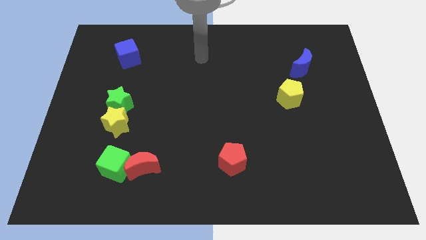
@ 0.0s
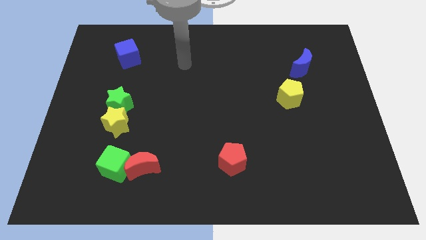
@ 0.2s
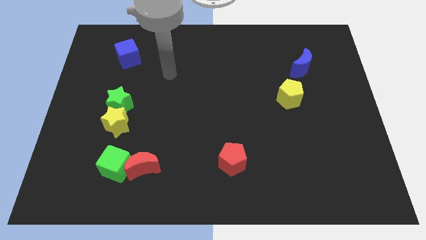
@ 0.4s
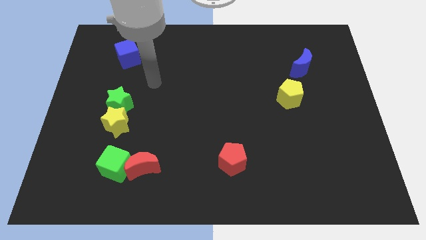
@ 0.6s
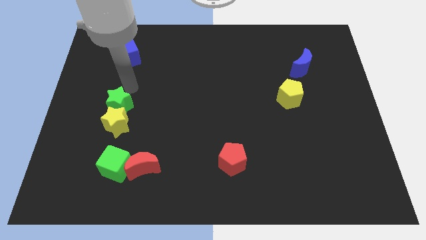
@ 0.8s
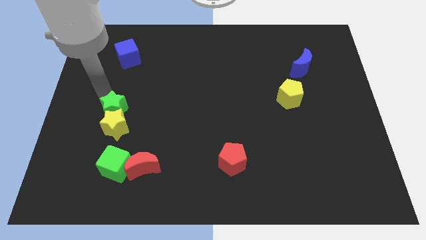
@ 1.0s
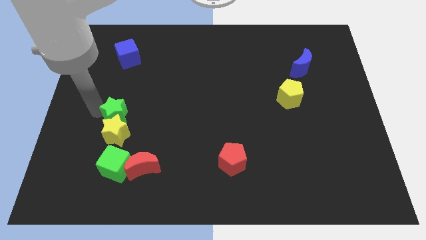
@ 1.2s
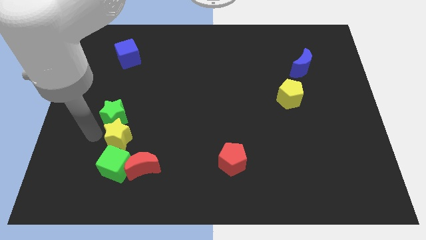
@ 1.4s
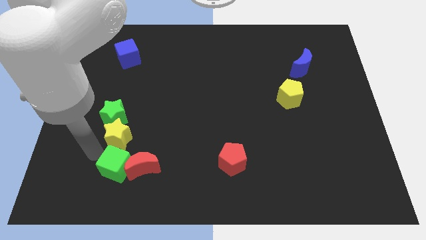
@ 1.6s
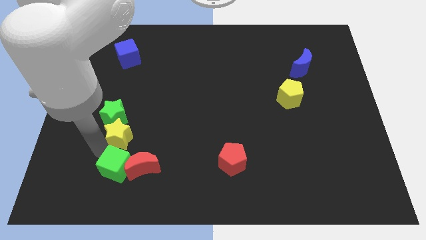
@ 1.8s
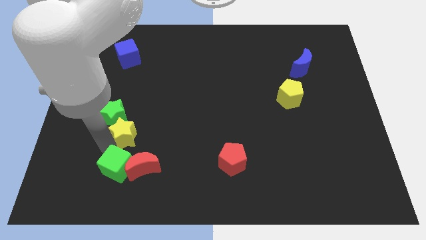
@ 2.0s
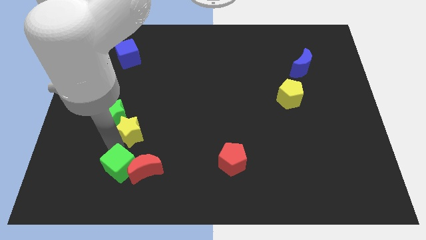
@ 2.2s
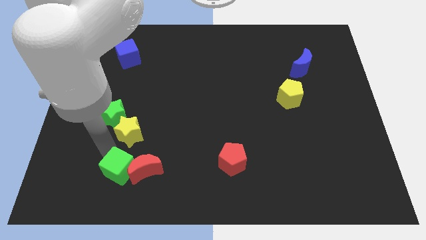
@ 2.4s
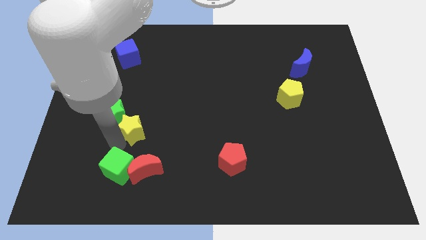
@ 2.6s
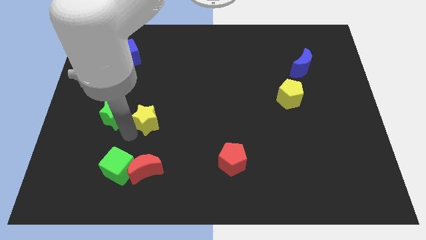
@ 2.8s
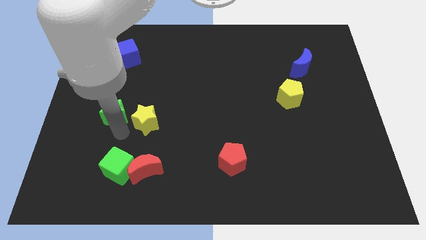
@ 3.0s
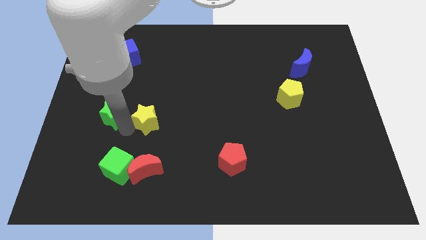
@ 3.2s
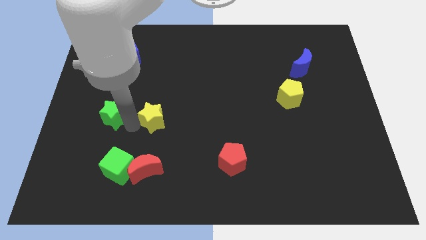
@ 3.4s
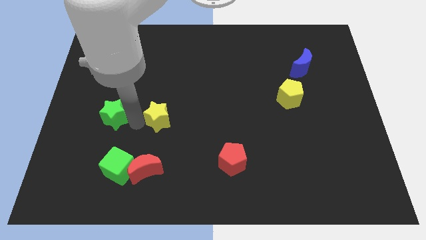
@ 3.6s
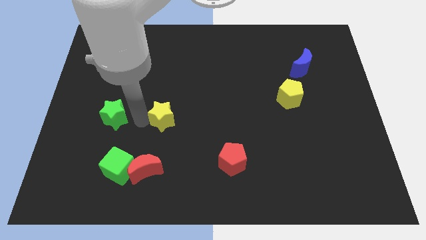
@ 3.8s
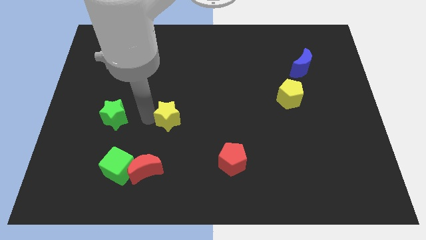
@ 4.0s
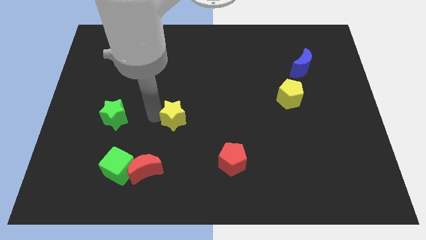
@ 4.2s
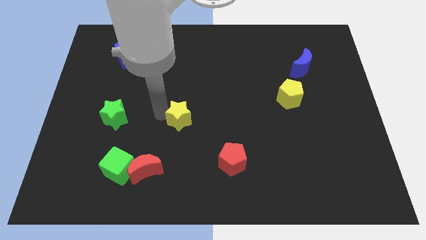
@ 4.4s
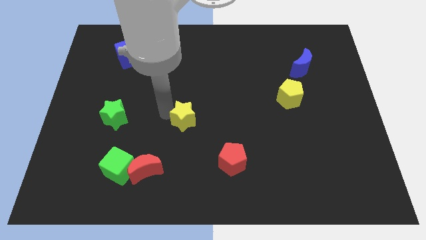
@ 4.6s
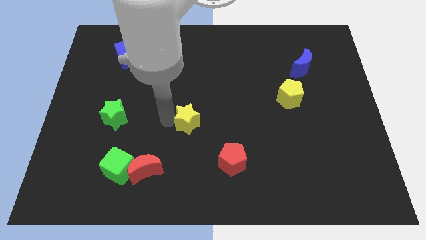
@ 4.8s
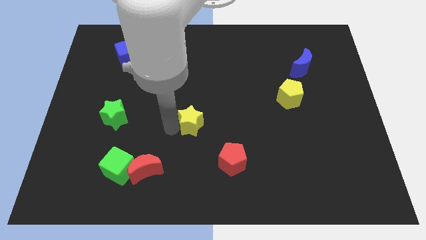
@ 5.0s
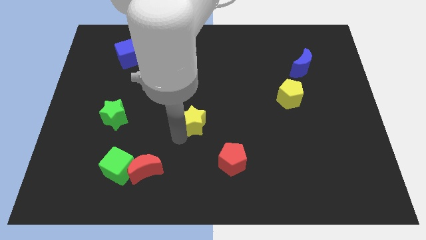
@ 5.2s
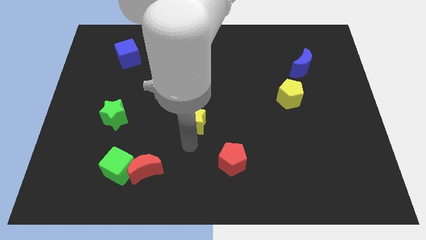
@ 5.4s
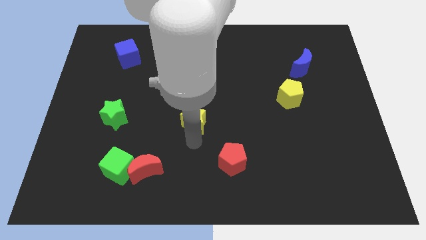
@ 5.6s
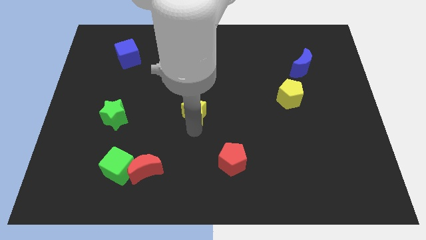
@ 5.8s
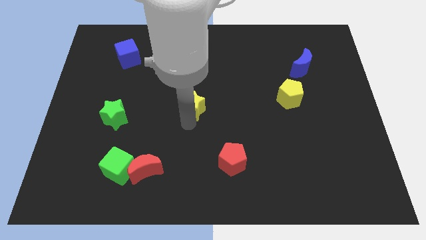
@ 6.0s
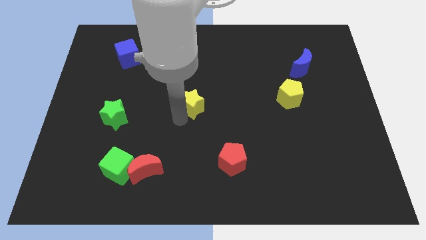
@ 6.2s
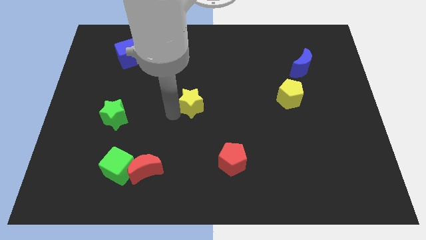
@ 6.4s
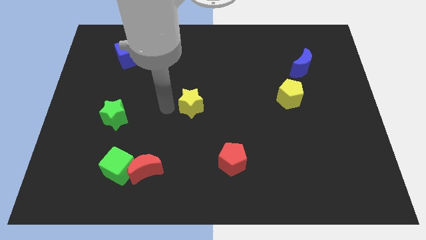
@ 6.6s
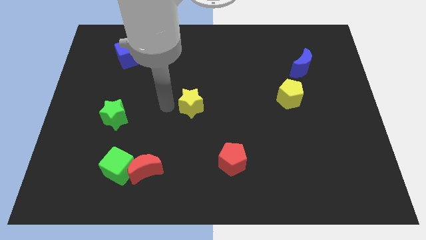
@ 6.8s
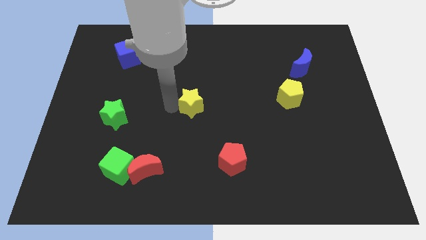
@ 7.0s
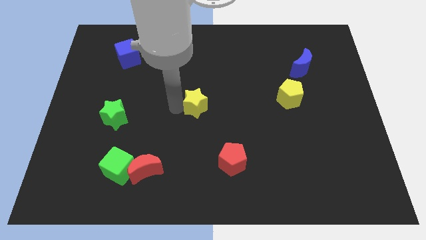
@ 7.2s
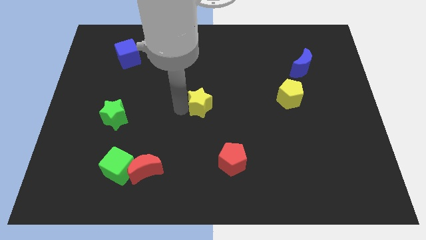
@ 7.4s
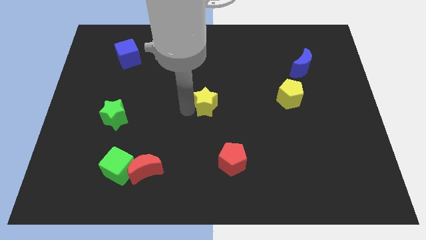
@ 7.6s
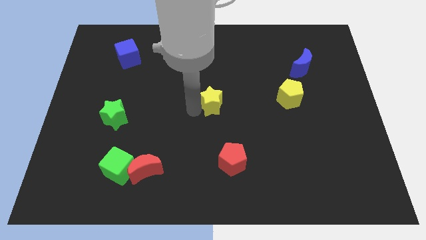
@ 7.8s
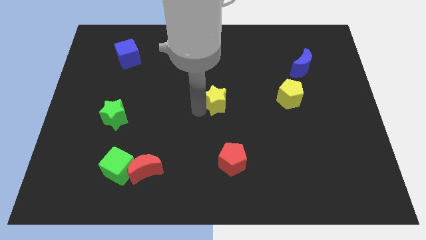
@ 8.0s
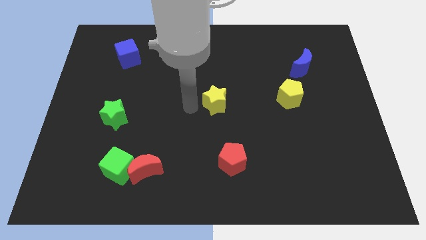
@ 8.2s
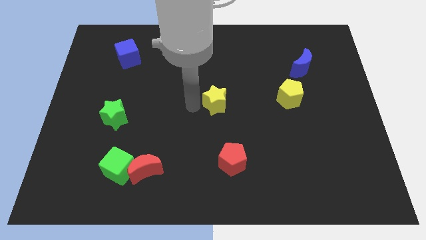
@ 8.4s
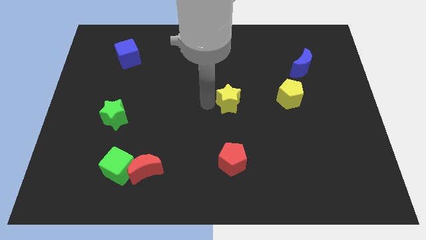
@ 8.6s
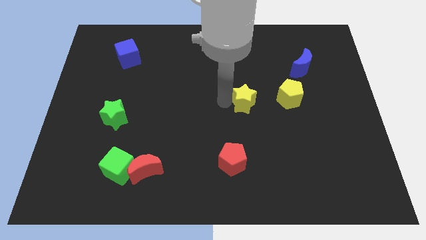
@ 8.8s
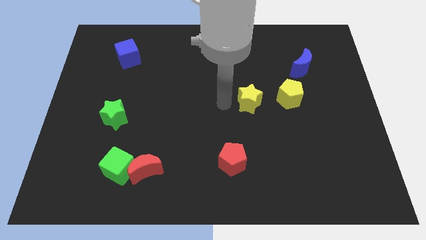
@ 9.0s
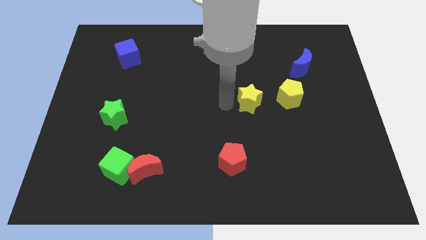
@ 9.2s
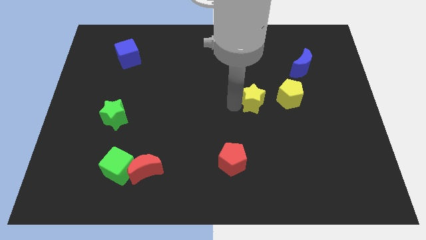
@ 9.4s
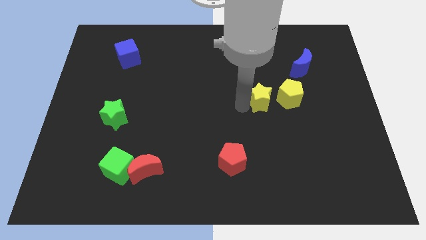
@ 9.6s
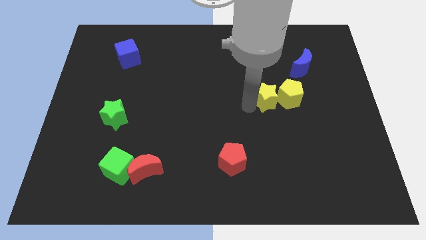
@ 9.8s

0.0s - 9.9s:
push the yellow star to the yellow pentagon

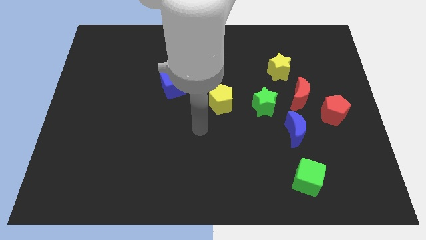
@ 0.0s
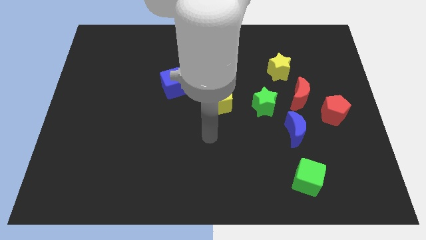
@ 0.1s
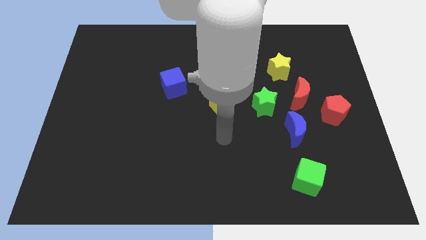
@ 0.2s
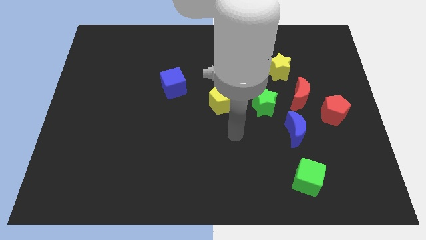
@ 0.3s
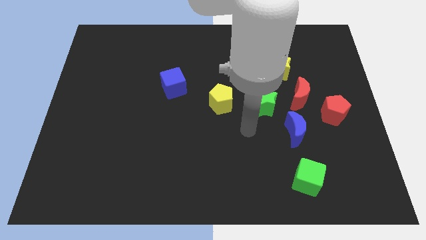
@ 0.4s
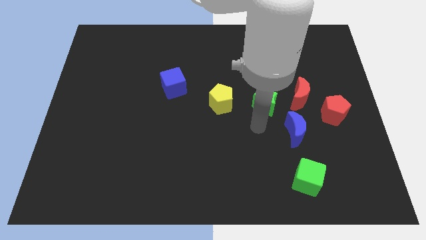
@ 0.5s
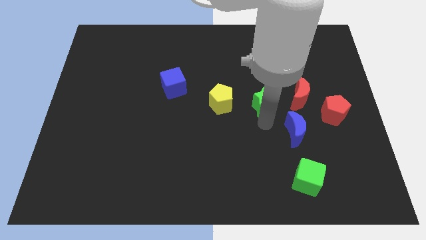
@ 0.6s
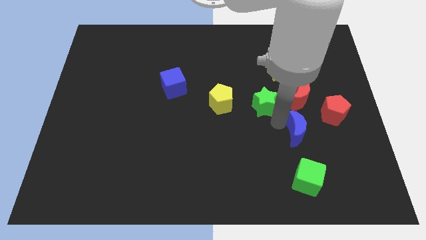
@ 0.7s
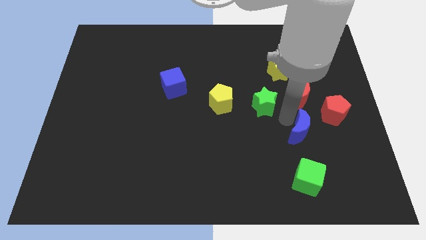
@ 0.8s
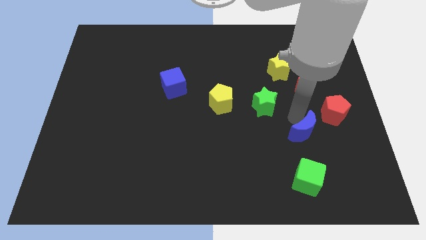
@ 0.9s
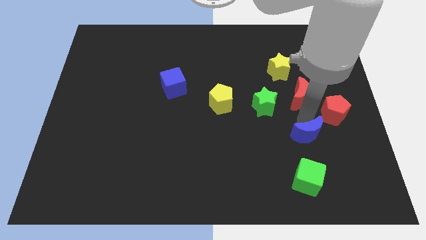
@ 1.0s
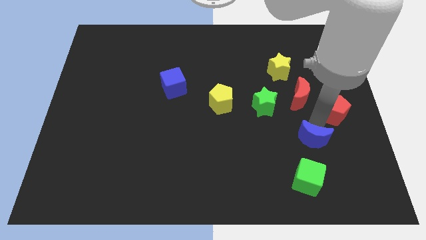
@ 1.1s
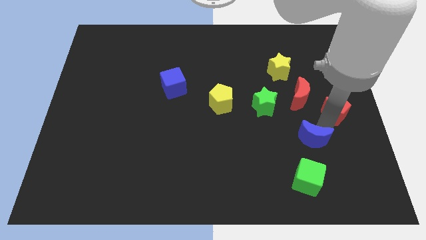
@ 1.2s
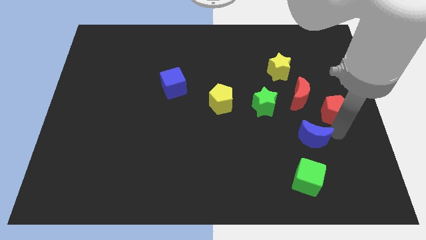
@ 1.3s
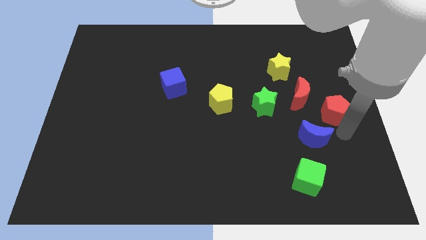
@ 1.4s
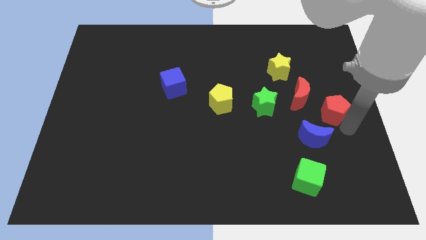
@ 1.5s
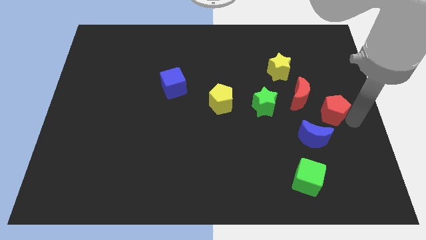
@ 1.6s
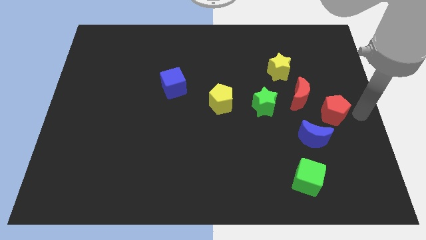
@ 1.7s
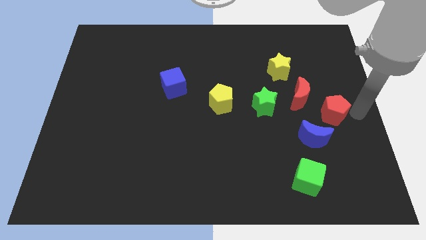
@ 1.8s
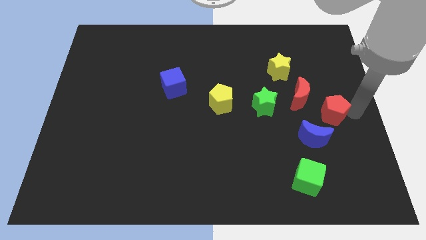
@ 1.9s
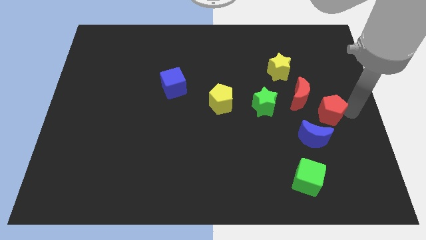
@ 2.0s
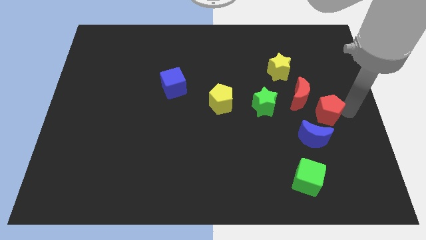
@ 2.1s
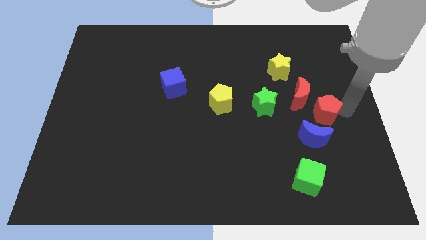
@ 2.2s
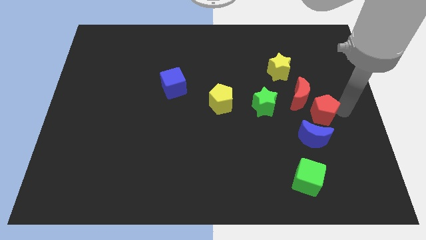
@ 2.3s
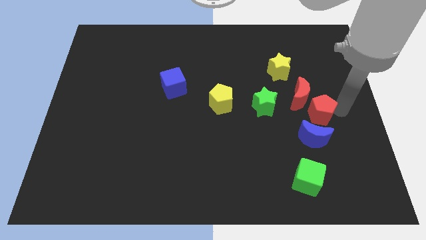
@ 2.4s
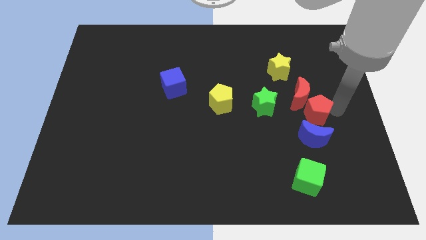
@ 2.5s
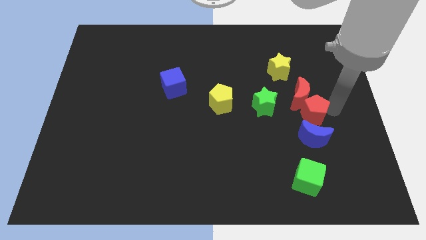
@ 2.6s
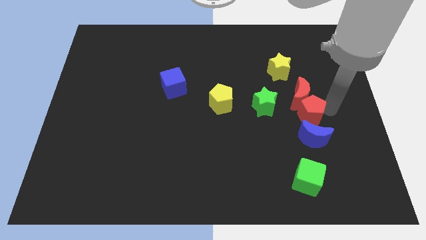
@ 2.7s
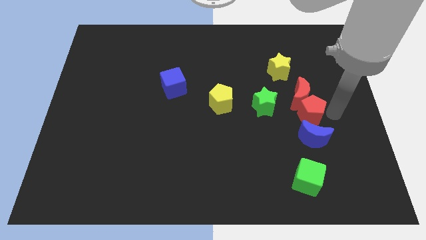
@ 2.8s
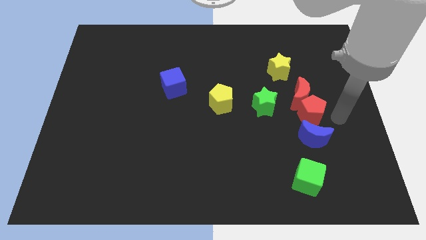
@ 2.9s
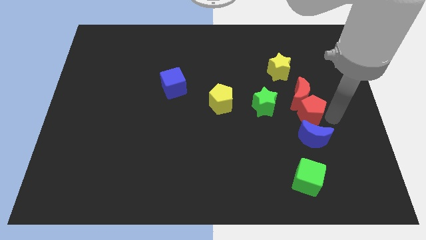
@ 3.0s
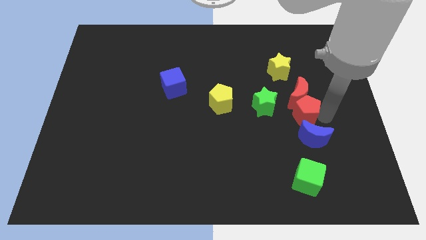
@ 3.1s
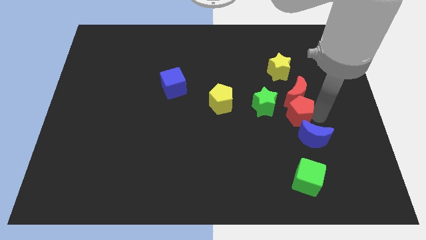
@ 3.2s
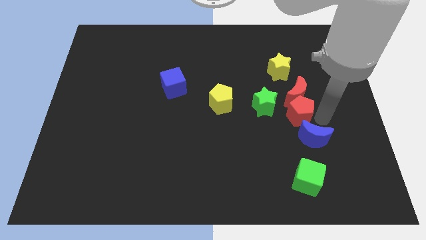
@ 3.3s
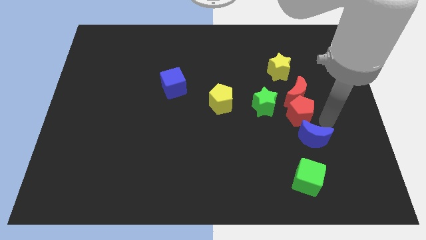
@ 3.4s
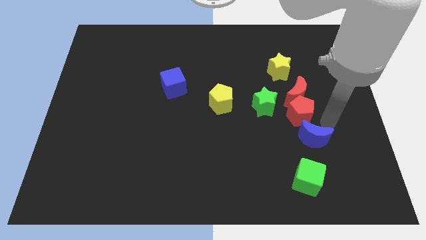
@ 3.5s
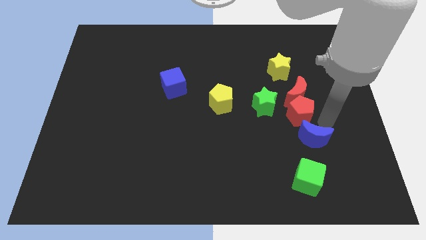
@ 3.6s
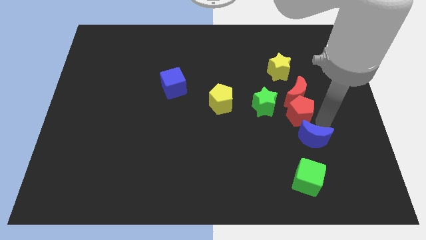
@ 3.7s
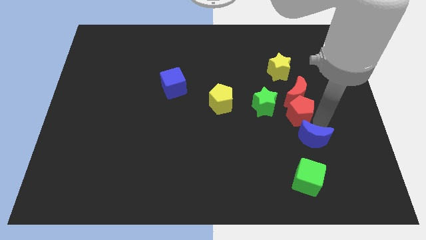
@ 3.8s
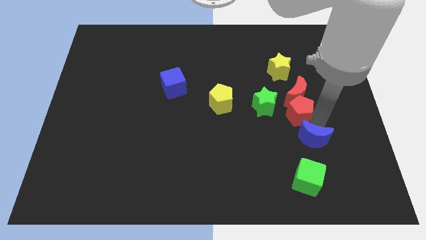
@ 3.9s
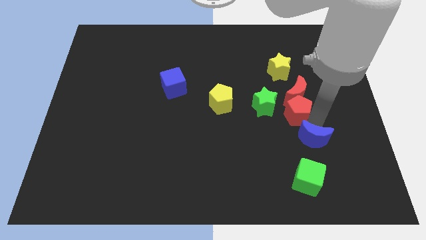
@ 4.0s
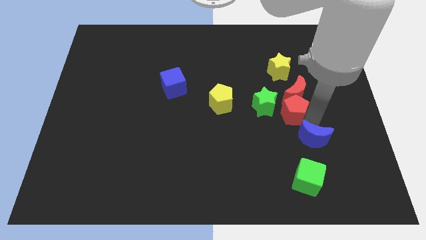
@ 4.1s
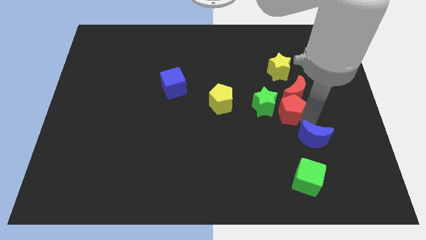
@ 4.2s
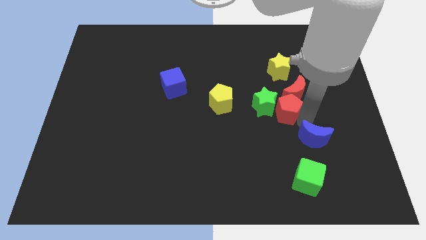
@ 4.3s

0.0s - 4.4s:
put the red pentagon close to the green star
